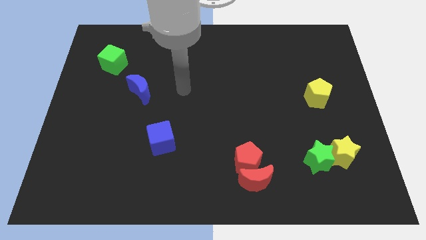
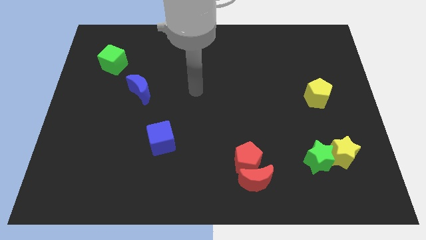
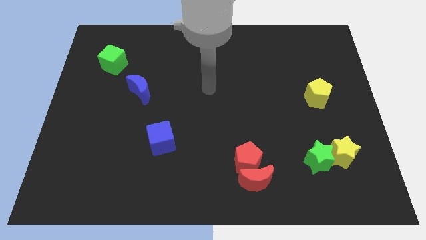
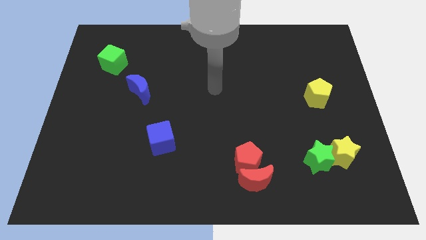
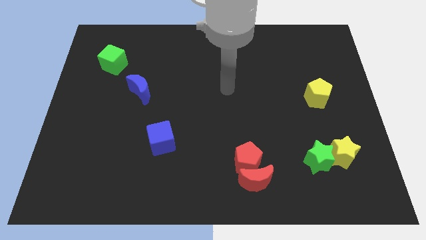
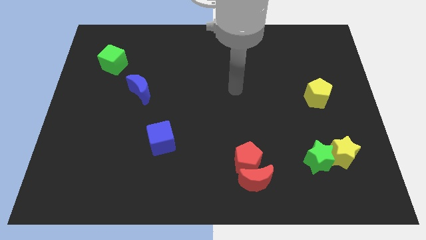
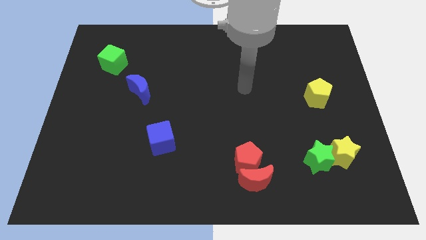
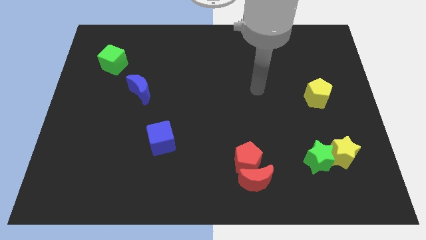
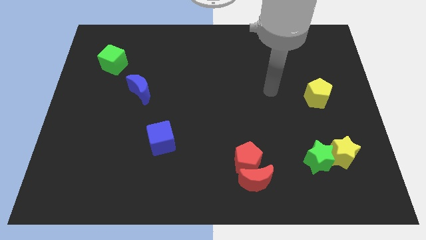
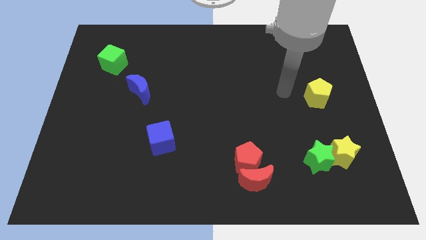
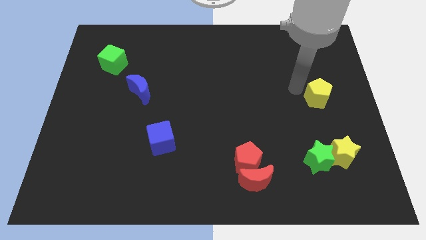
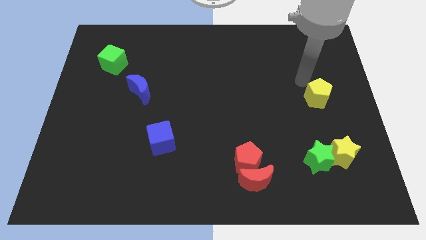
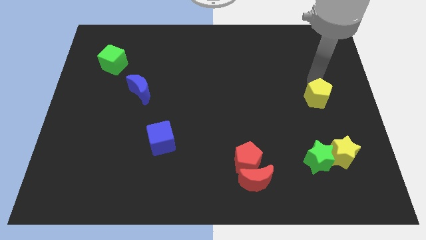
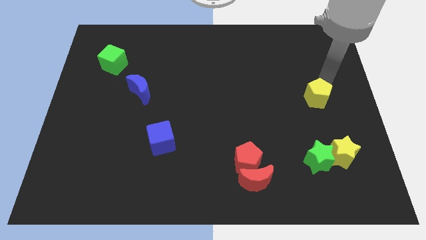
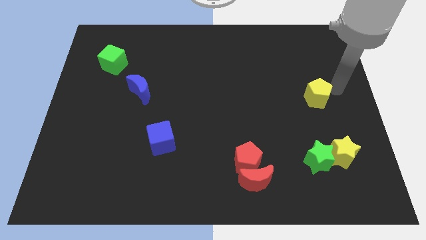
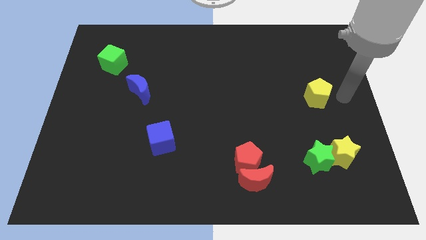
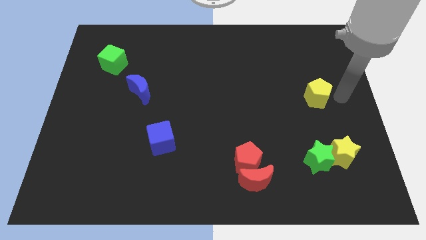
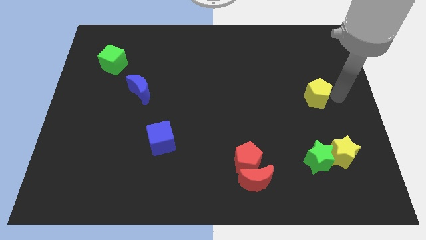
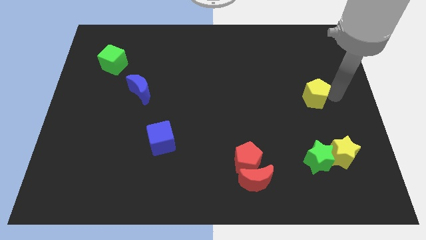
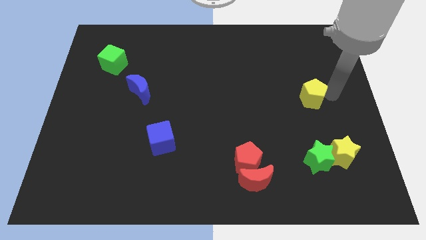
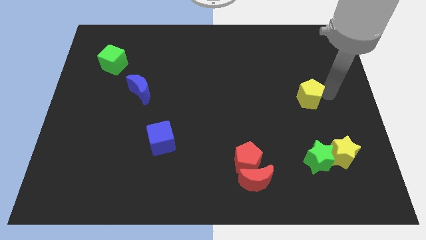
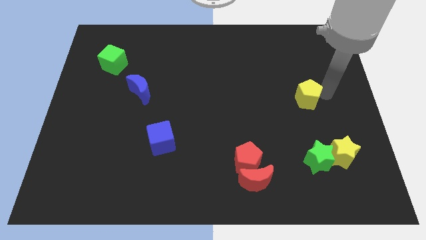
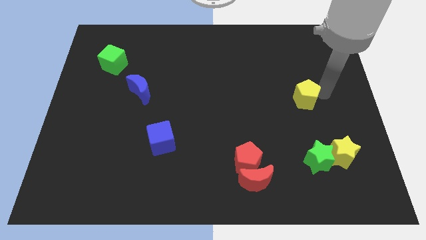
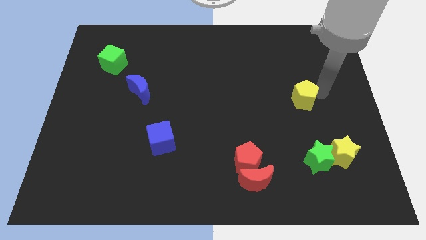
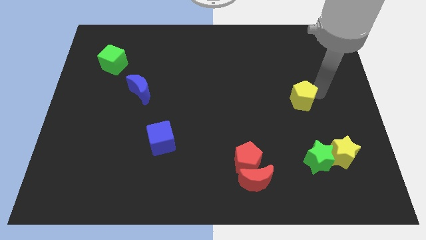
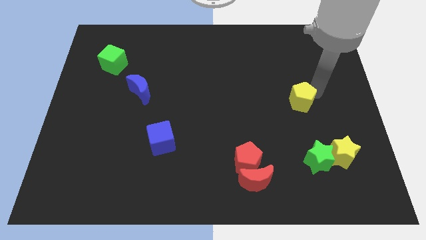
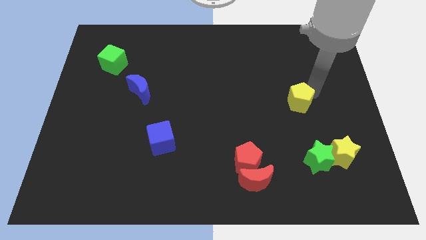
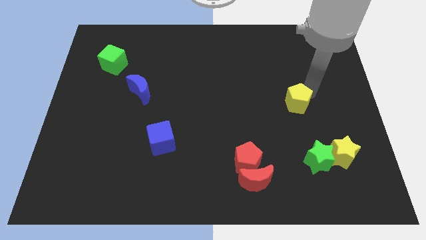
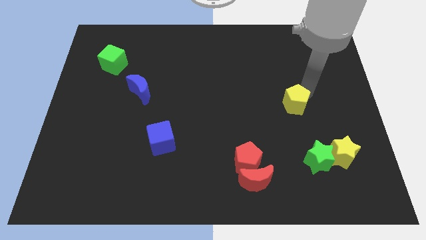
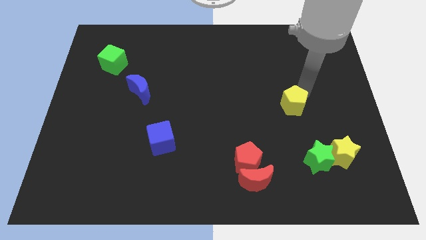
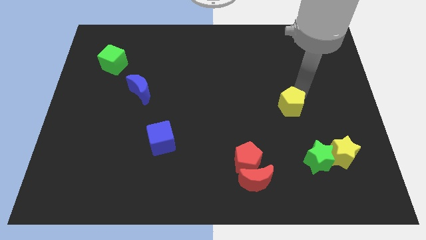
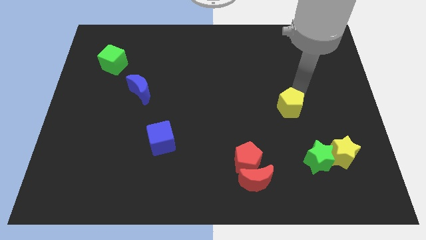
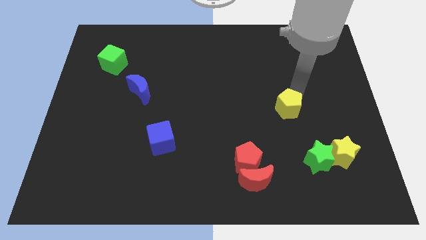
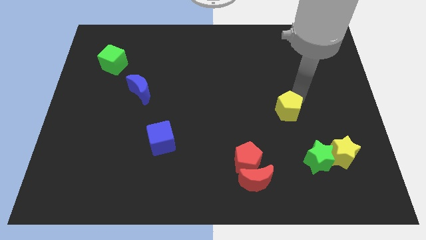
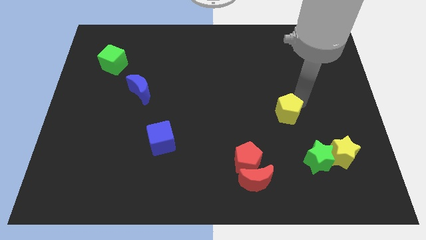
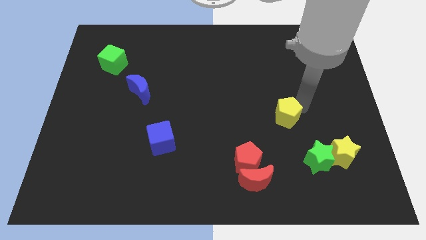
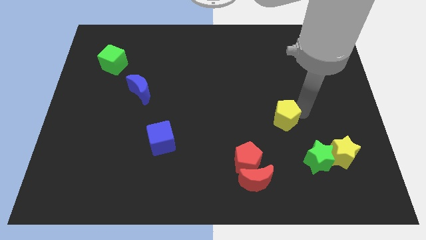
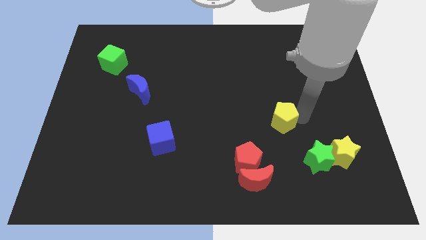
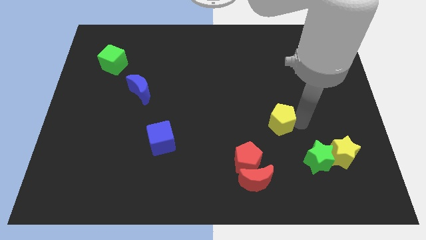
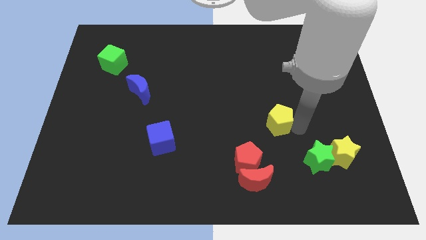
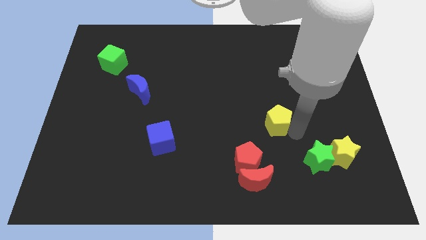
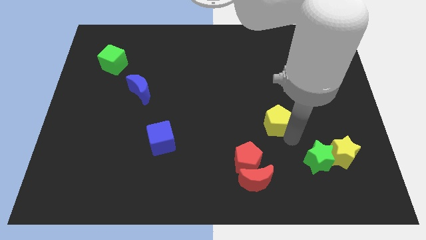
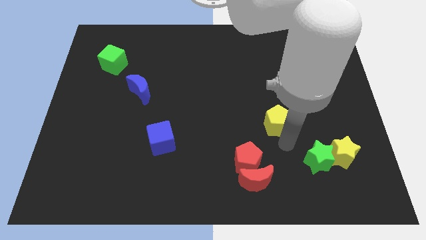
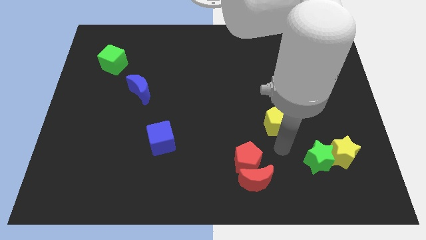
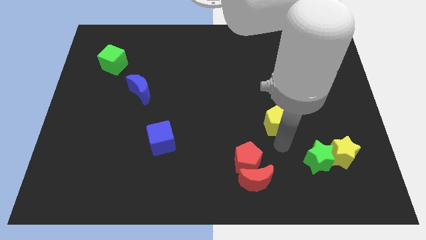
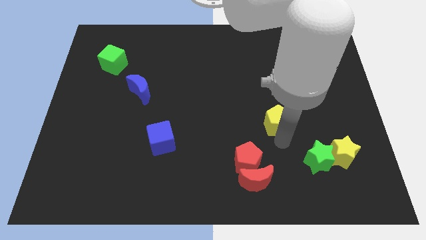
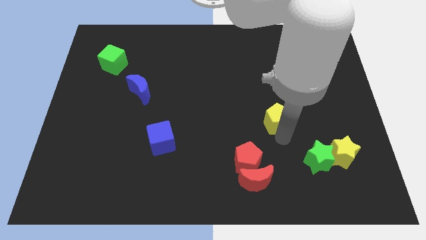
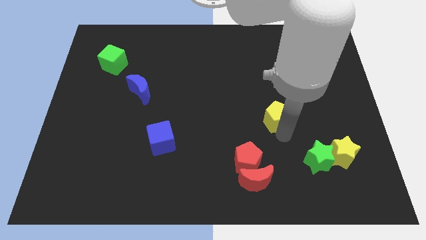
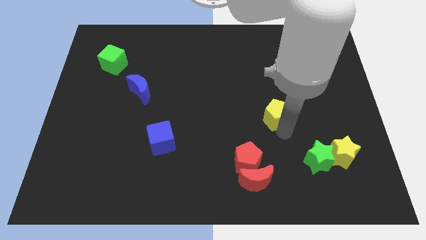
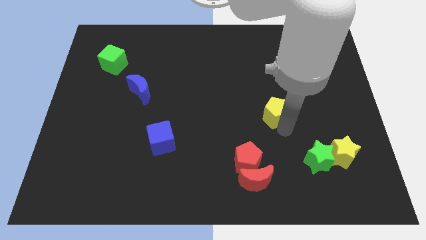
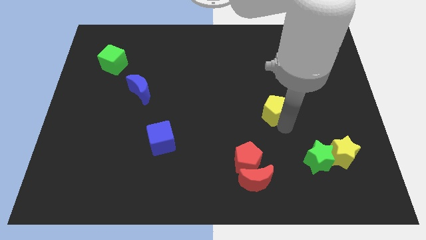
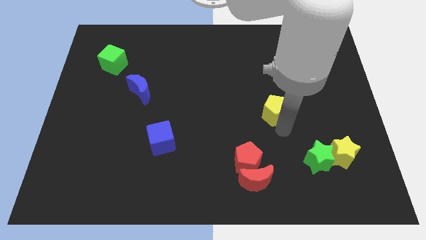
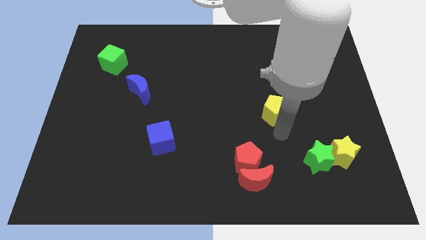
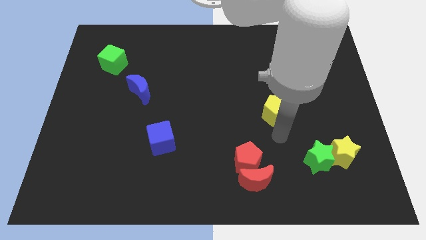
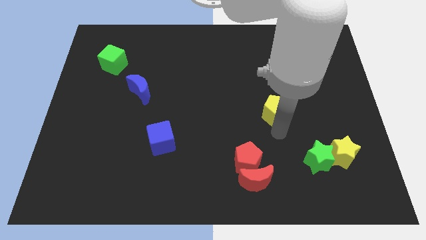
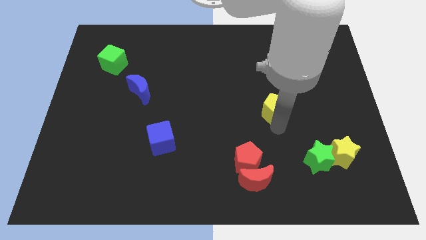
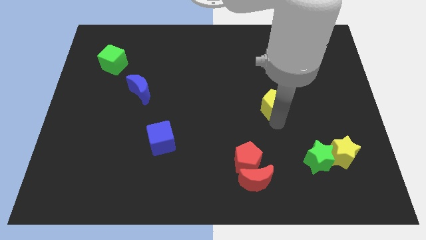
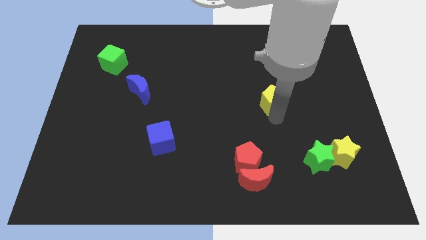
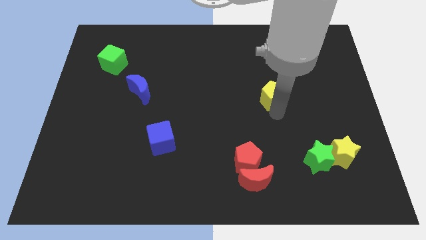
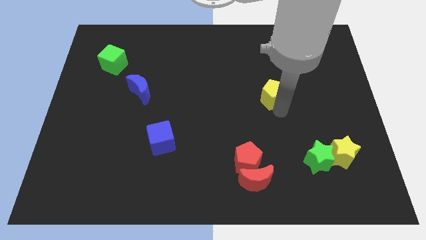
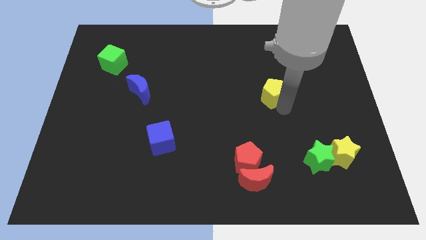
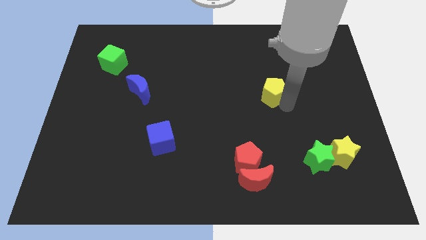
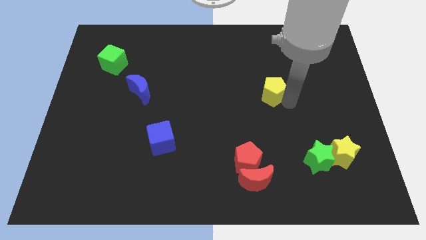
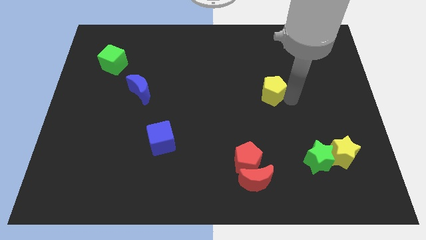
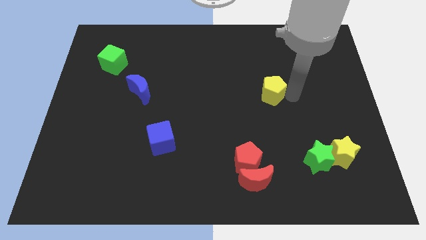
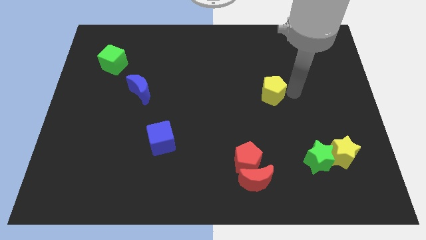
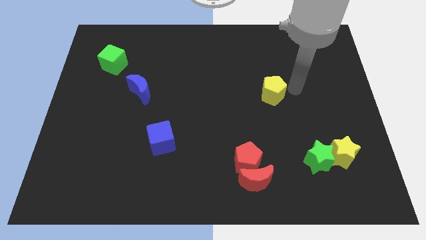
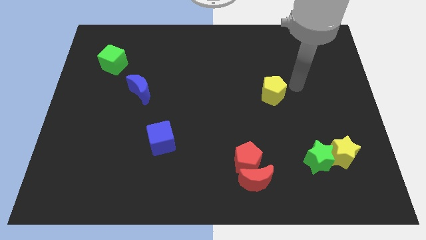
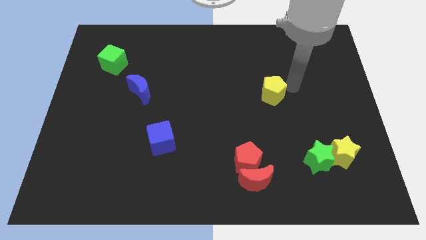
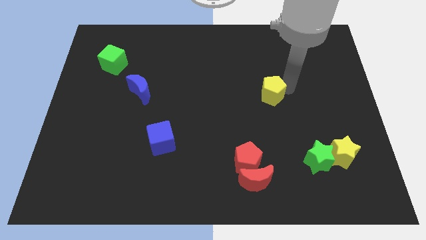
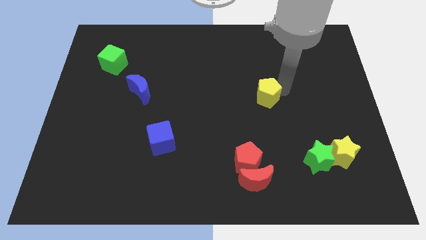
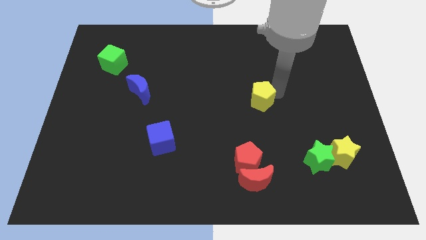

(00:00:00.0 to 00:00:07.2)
slide the yellow pentagon to the center
